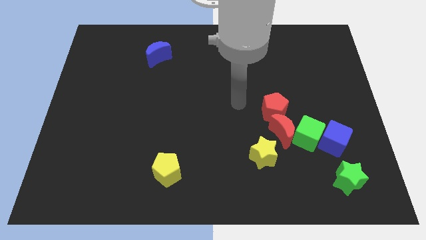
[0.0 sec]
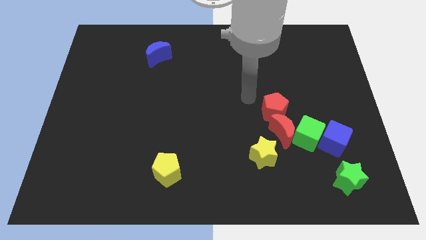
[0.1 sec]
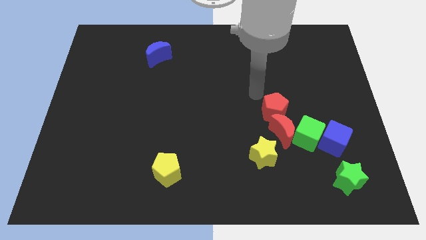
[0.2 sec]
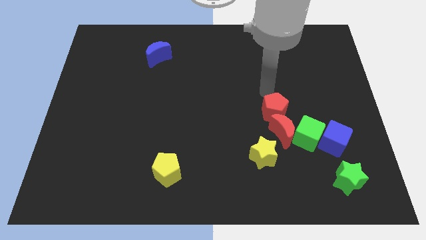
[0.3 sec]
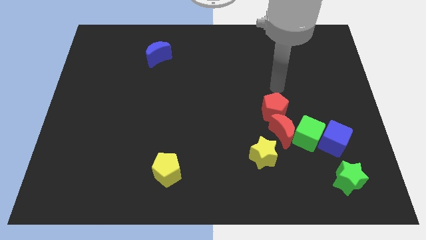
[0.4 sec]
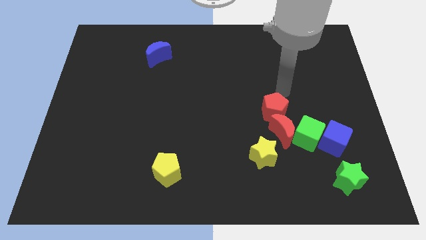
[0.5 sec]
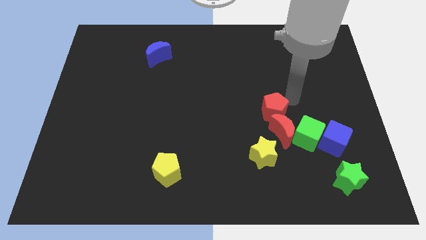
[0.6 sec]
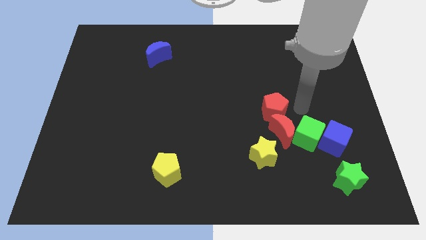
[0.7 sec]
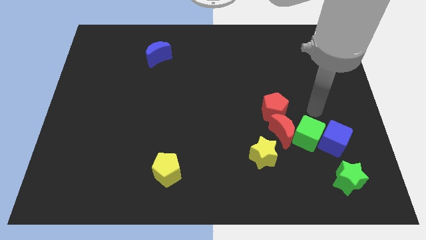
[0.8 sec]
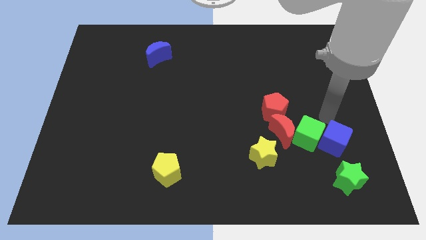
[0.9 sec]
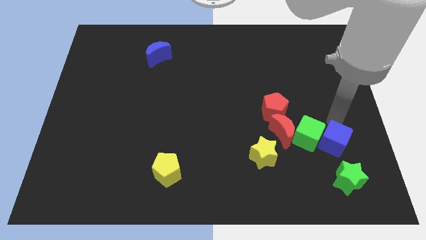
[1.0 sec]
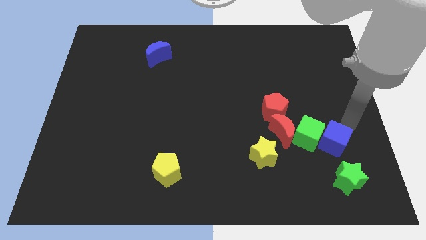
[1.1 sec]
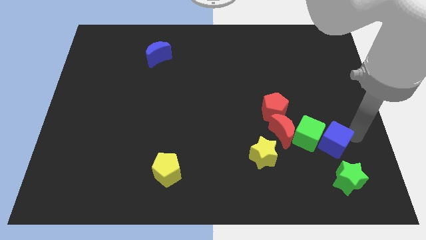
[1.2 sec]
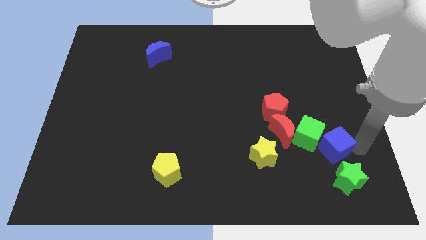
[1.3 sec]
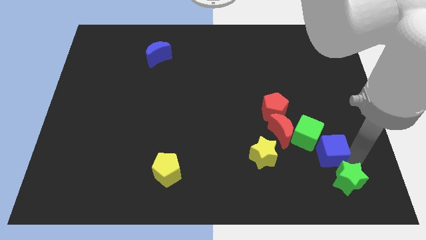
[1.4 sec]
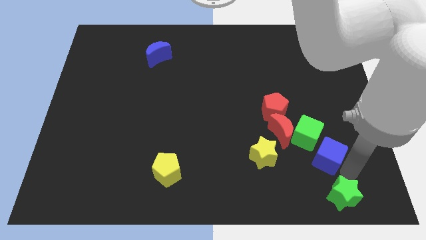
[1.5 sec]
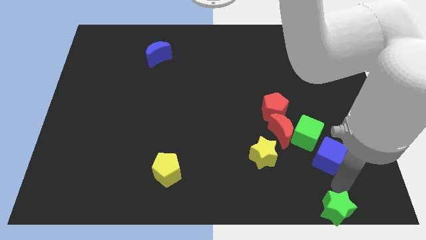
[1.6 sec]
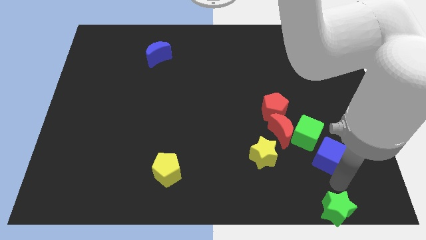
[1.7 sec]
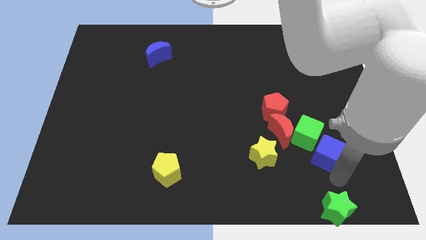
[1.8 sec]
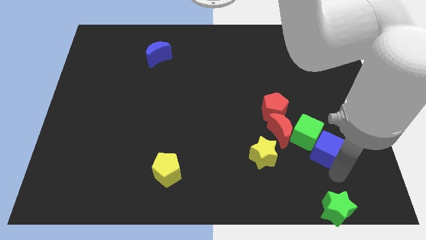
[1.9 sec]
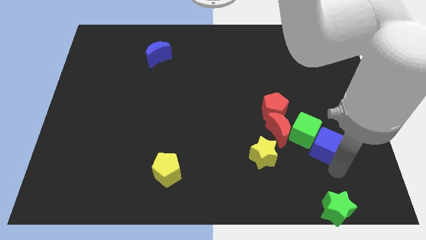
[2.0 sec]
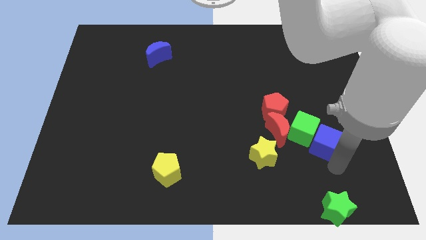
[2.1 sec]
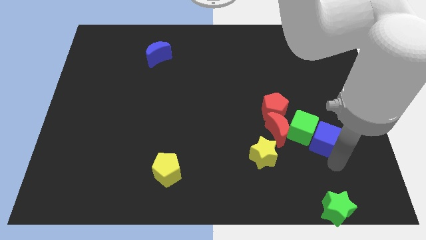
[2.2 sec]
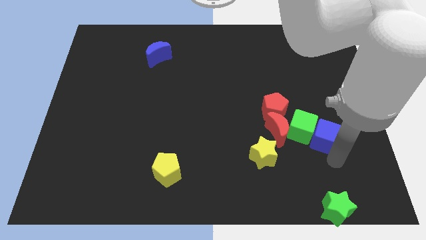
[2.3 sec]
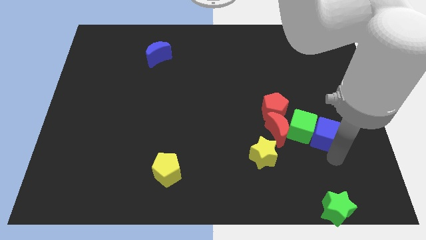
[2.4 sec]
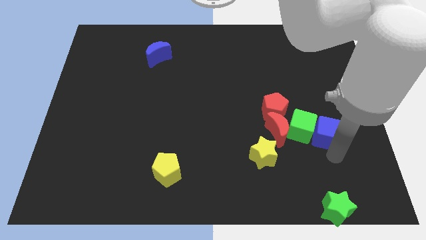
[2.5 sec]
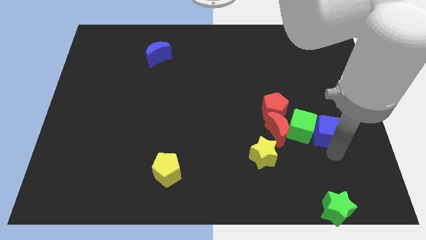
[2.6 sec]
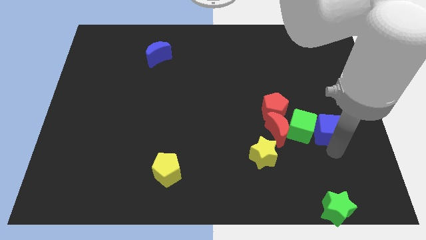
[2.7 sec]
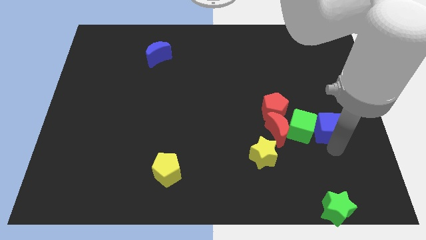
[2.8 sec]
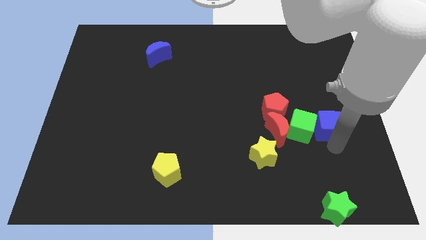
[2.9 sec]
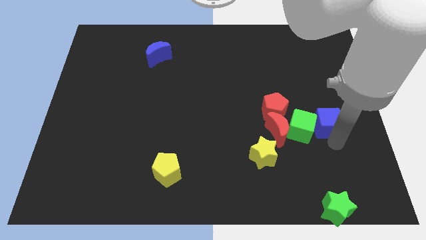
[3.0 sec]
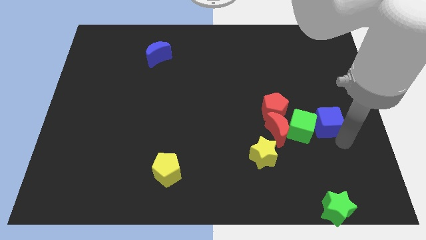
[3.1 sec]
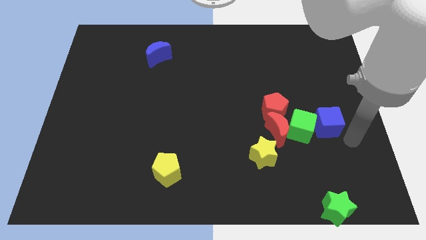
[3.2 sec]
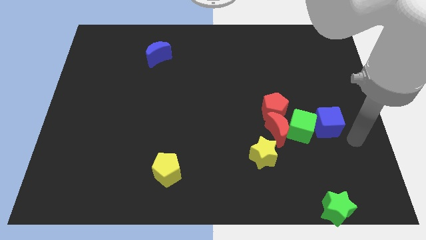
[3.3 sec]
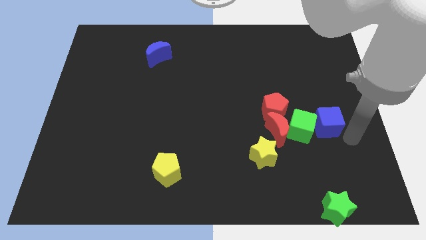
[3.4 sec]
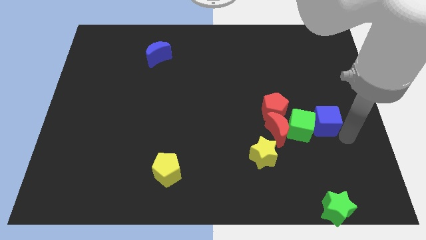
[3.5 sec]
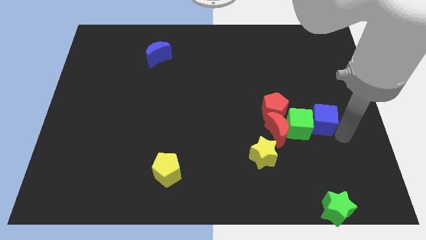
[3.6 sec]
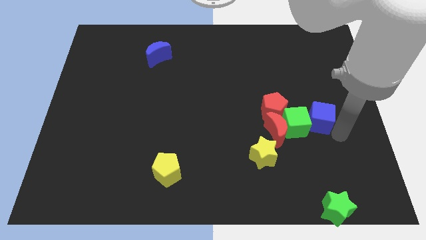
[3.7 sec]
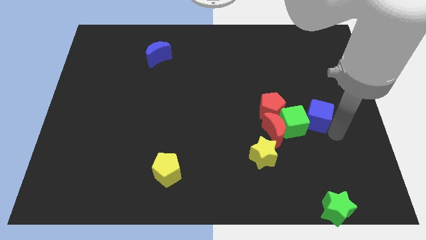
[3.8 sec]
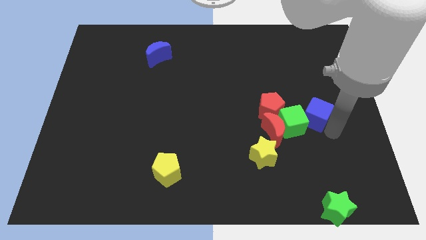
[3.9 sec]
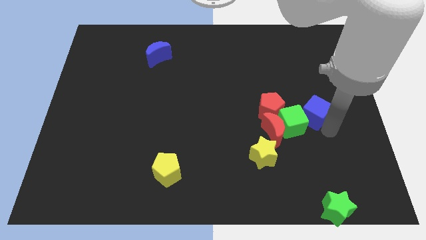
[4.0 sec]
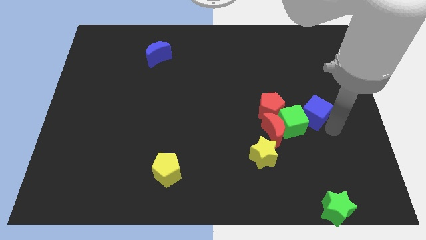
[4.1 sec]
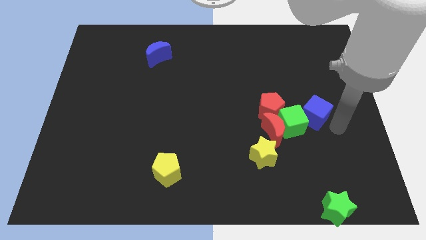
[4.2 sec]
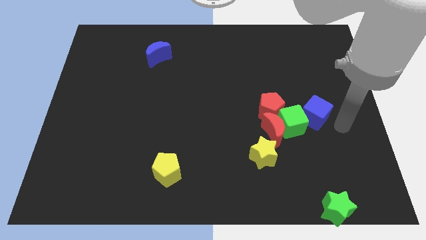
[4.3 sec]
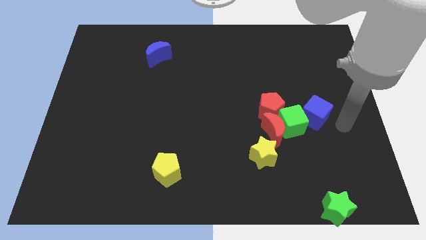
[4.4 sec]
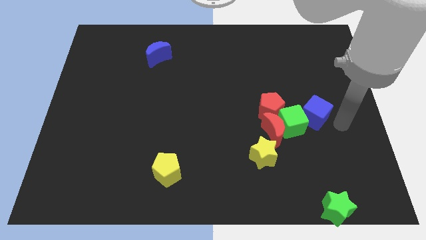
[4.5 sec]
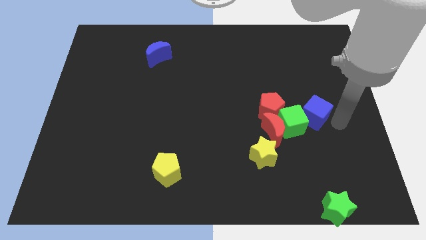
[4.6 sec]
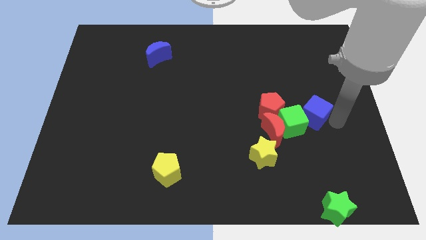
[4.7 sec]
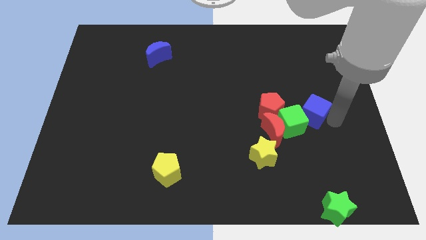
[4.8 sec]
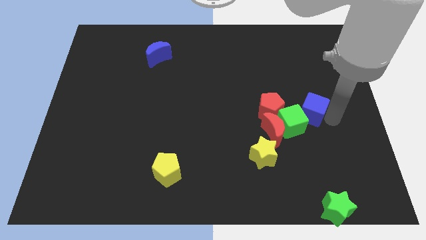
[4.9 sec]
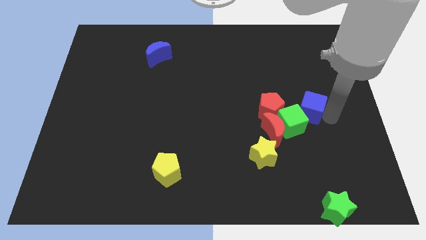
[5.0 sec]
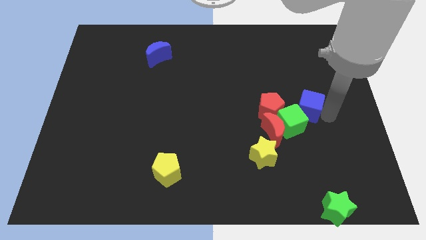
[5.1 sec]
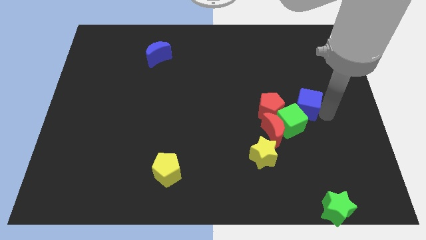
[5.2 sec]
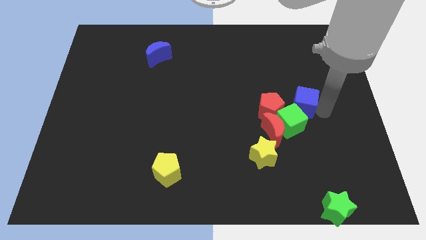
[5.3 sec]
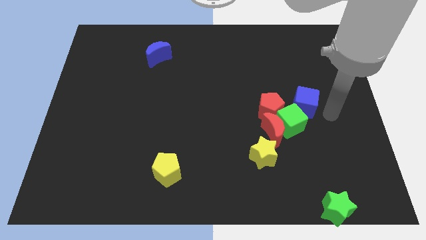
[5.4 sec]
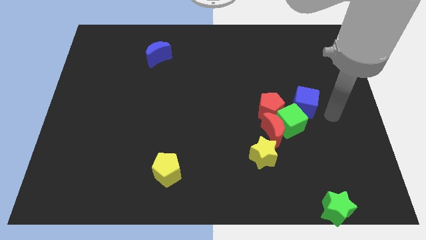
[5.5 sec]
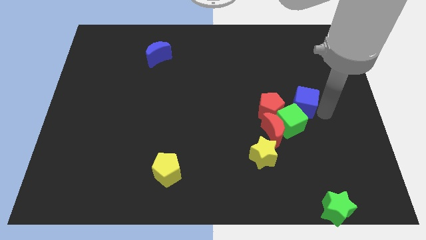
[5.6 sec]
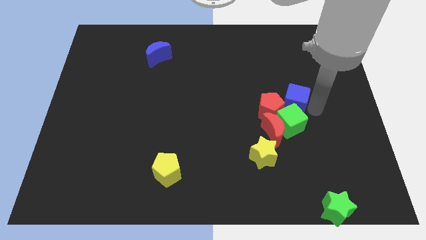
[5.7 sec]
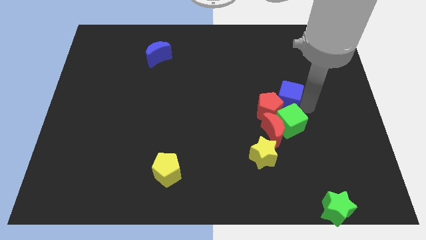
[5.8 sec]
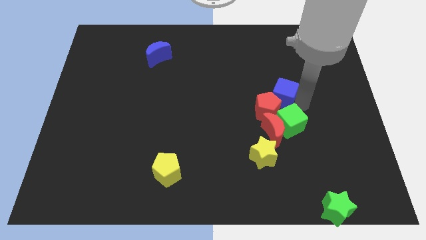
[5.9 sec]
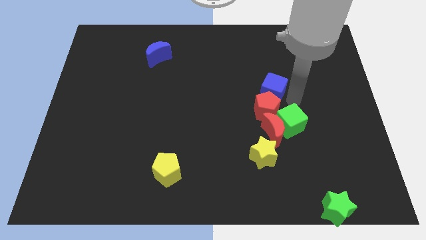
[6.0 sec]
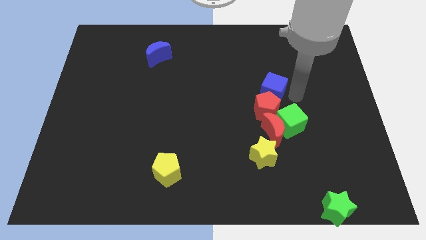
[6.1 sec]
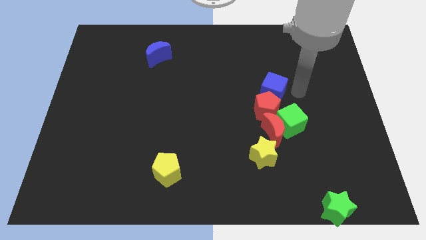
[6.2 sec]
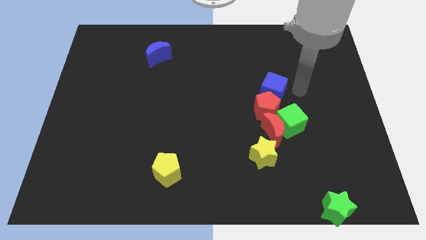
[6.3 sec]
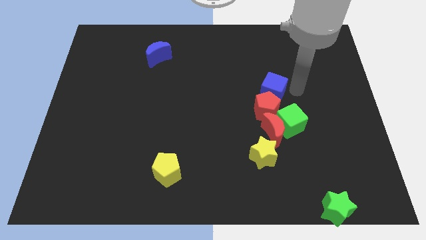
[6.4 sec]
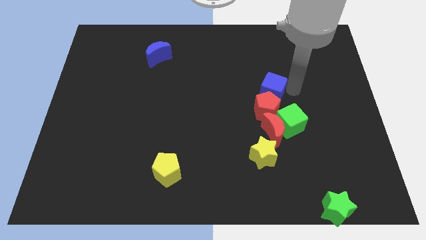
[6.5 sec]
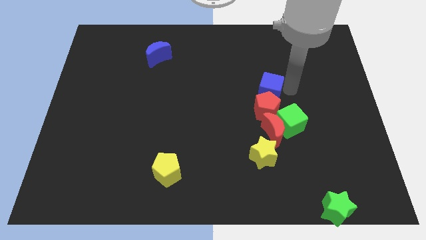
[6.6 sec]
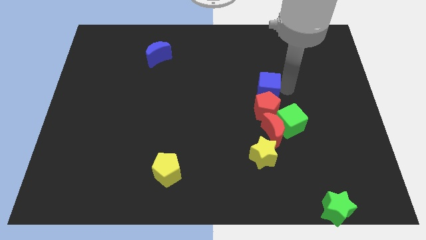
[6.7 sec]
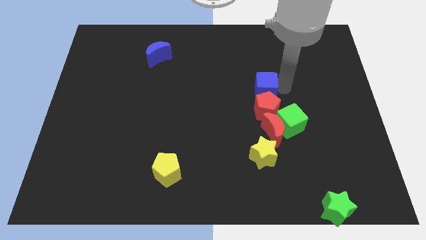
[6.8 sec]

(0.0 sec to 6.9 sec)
move the blue cube to the top left side of the red pentagon

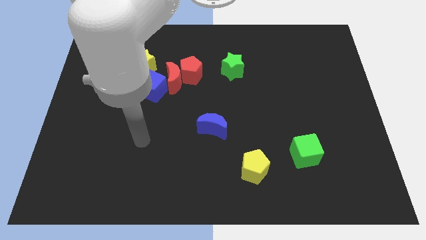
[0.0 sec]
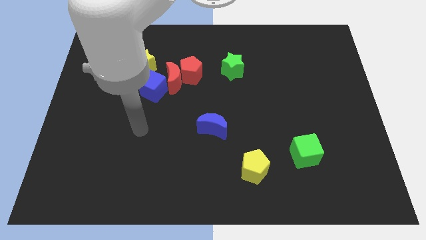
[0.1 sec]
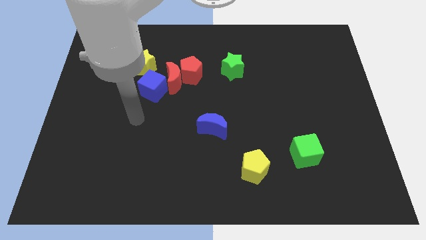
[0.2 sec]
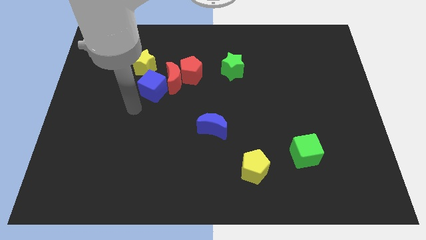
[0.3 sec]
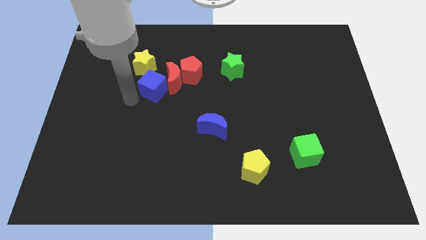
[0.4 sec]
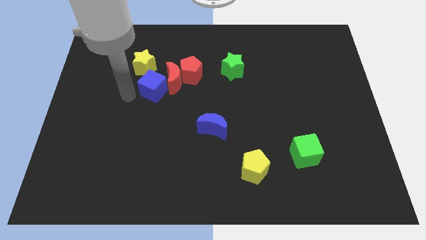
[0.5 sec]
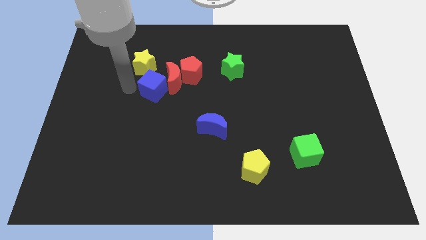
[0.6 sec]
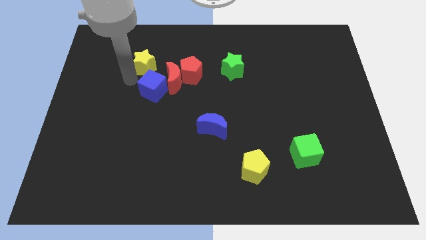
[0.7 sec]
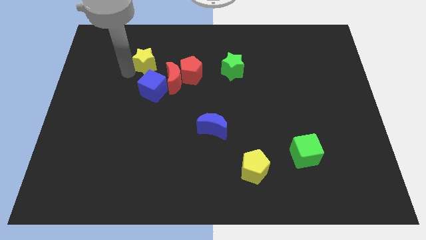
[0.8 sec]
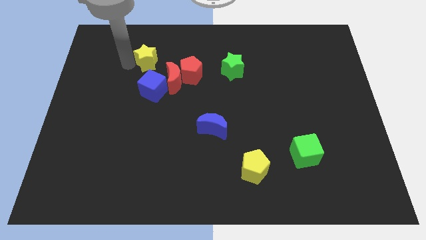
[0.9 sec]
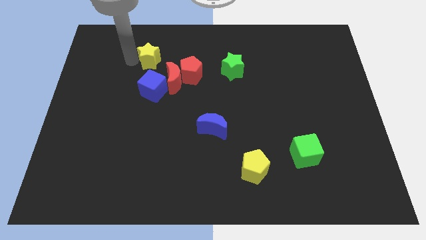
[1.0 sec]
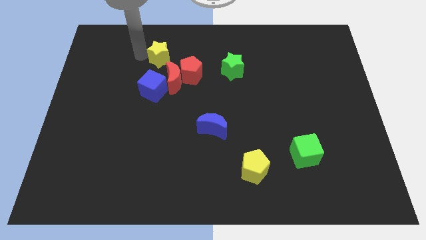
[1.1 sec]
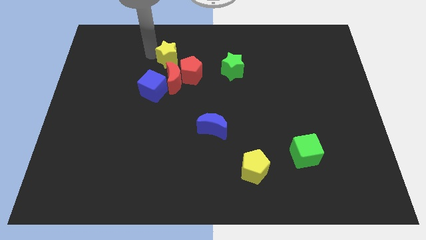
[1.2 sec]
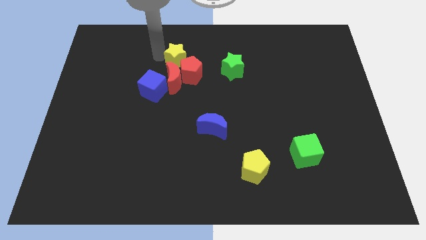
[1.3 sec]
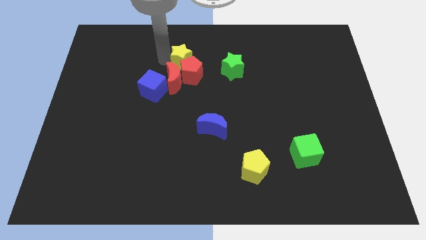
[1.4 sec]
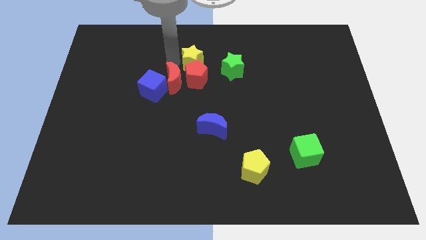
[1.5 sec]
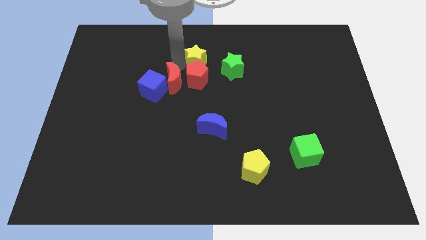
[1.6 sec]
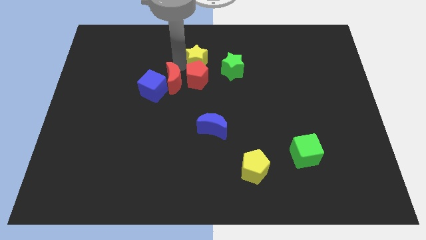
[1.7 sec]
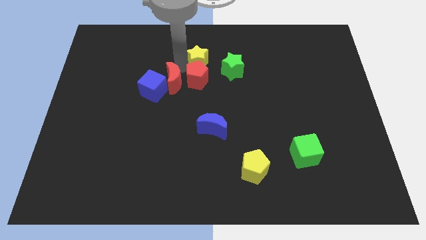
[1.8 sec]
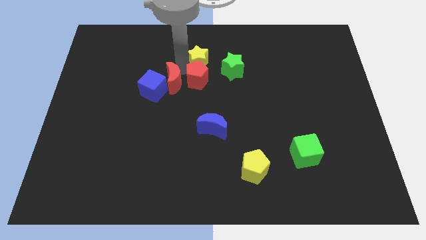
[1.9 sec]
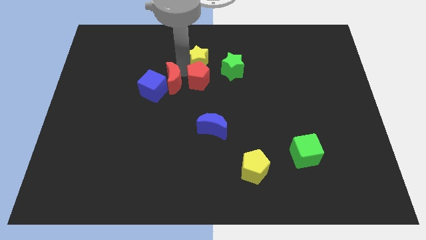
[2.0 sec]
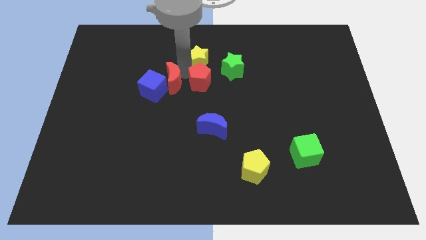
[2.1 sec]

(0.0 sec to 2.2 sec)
put the red pentagon above the blue moon
